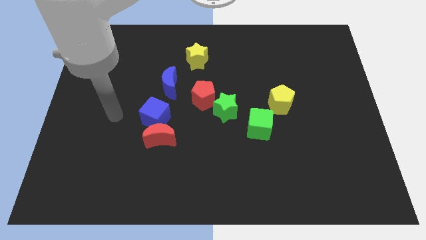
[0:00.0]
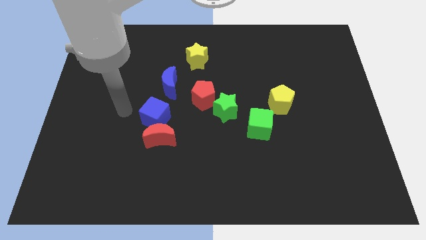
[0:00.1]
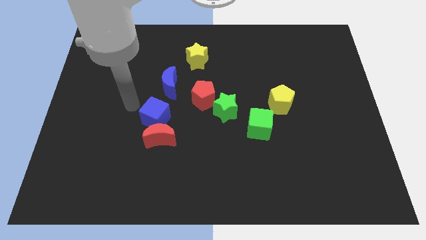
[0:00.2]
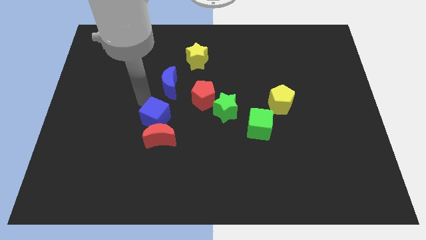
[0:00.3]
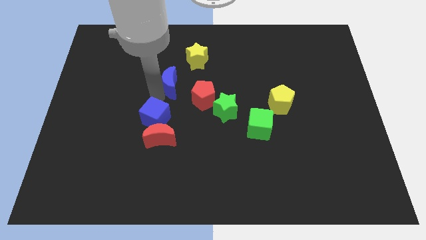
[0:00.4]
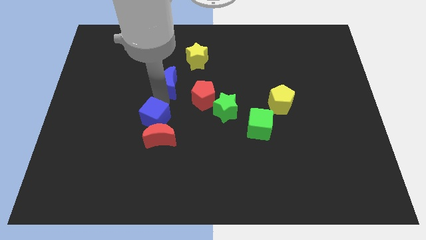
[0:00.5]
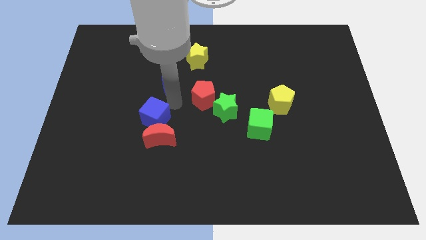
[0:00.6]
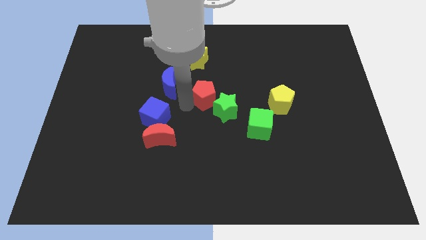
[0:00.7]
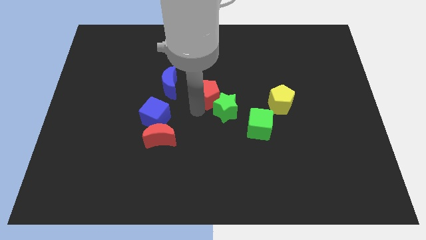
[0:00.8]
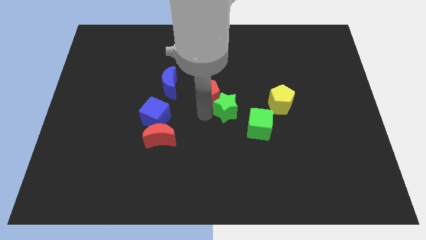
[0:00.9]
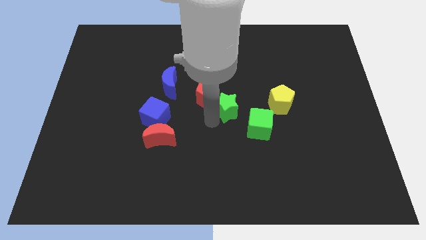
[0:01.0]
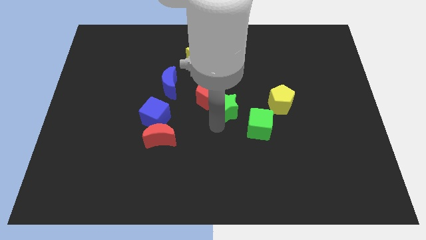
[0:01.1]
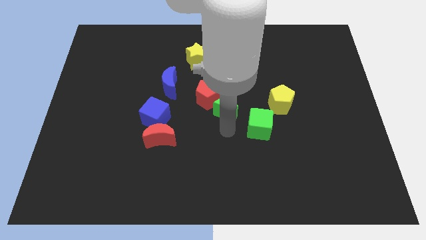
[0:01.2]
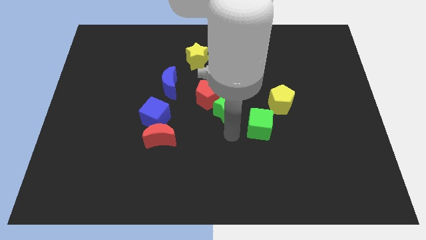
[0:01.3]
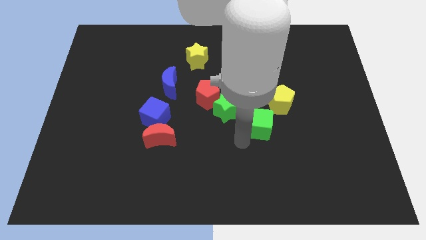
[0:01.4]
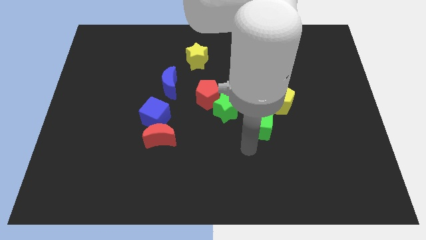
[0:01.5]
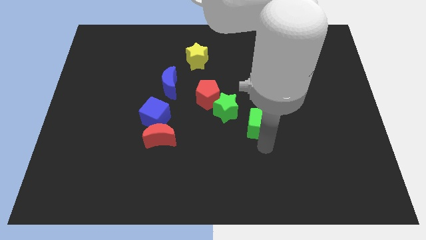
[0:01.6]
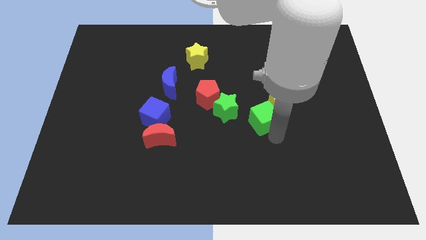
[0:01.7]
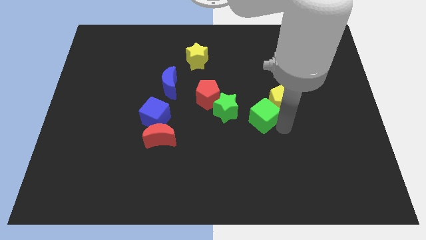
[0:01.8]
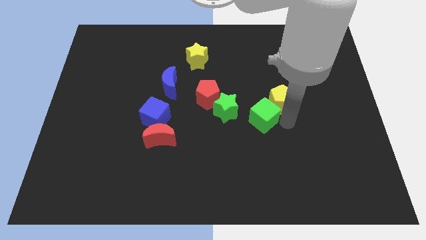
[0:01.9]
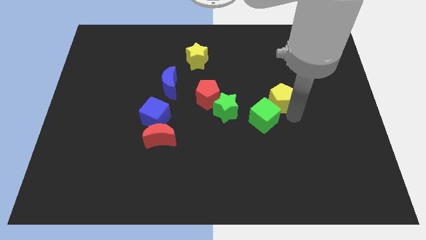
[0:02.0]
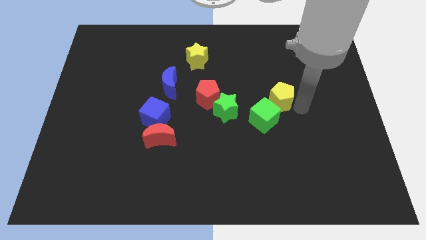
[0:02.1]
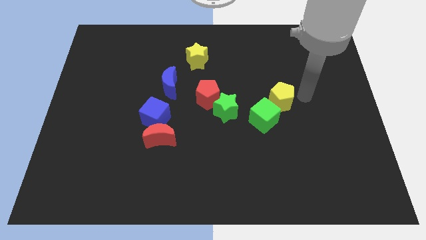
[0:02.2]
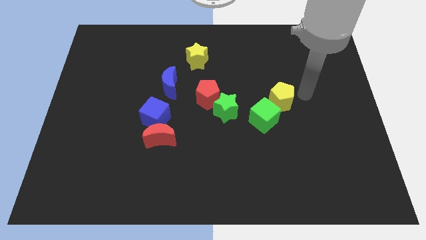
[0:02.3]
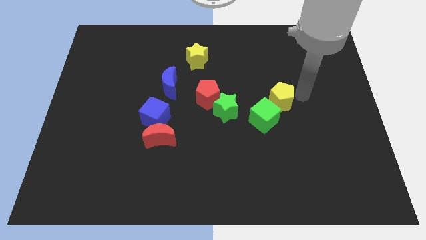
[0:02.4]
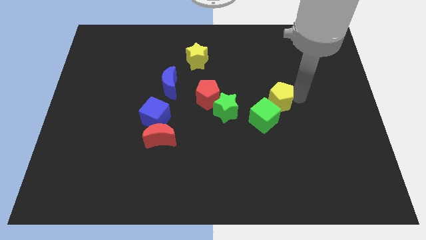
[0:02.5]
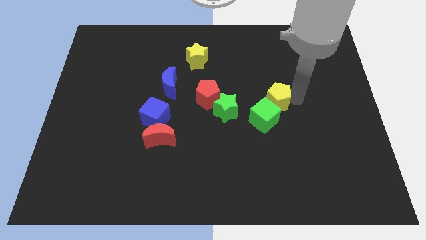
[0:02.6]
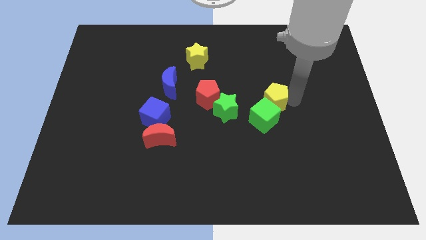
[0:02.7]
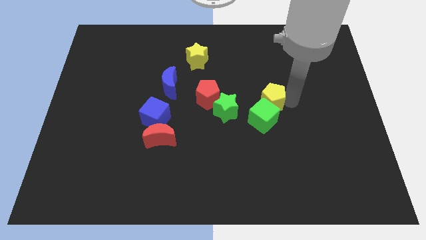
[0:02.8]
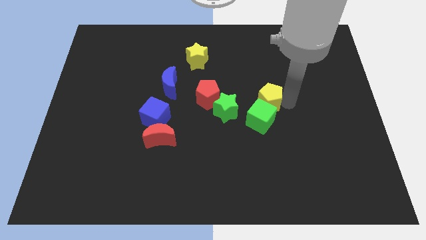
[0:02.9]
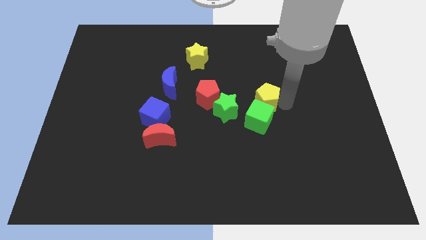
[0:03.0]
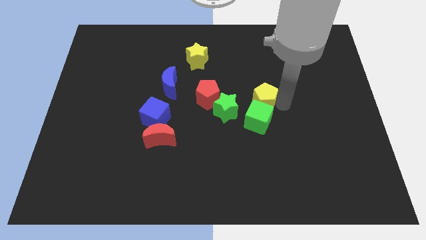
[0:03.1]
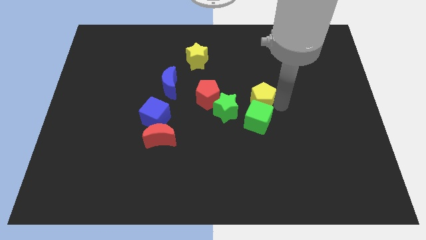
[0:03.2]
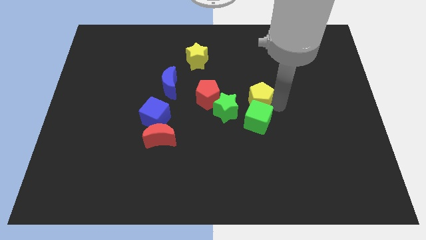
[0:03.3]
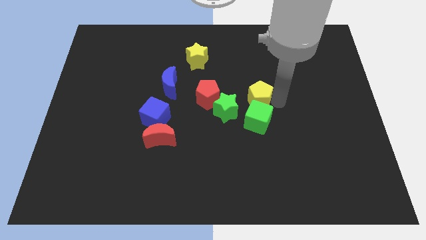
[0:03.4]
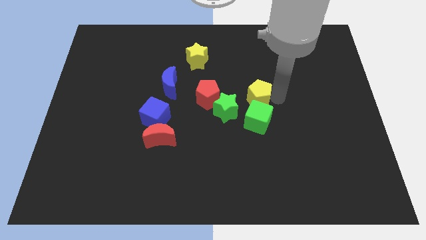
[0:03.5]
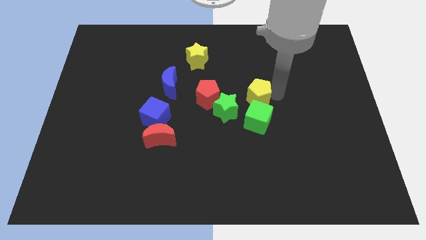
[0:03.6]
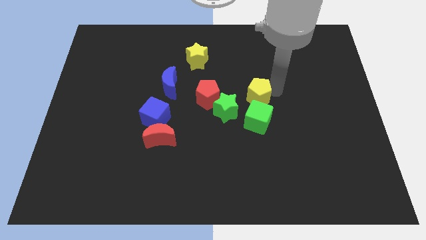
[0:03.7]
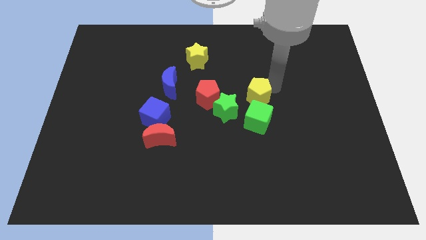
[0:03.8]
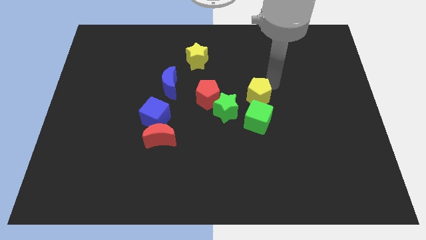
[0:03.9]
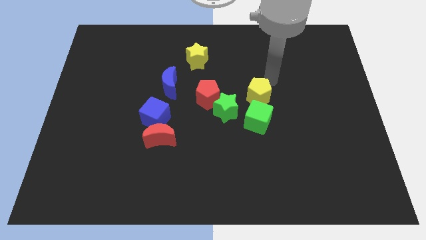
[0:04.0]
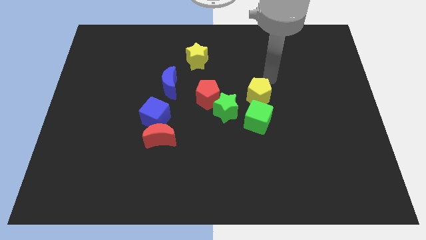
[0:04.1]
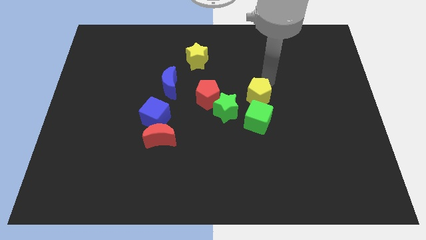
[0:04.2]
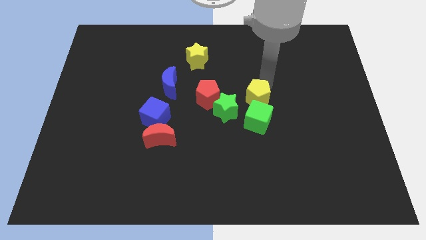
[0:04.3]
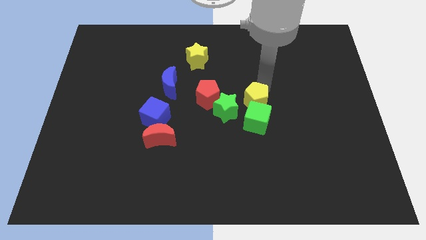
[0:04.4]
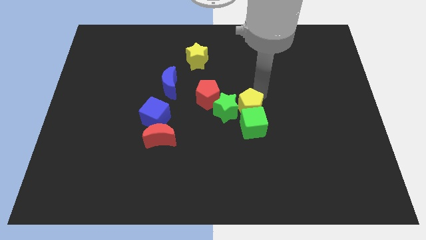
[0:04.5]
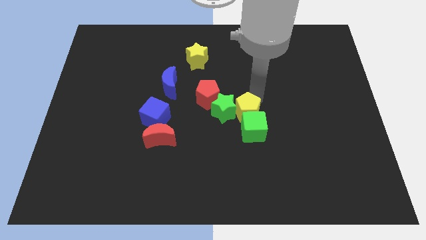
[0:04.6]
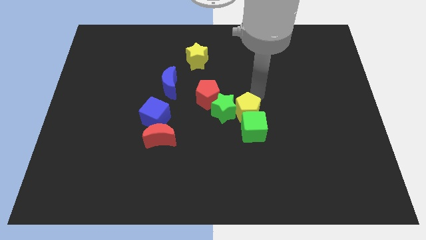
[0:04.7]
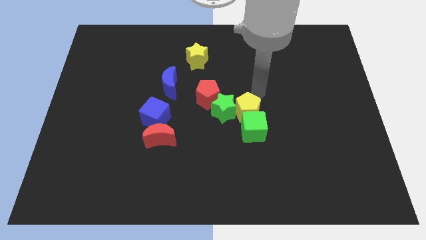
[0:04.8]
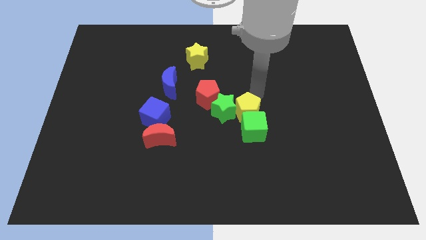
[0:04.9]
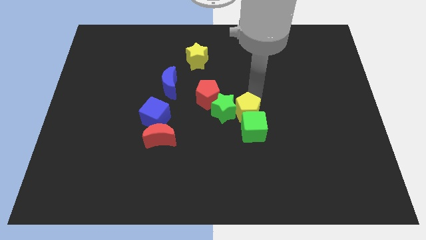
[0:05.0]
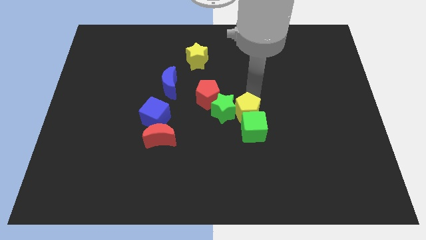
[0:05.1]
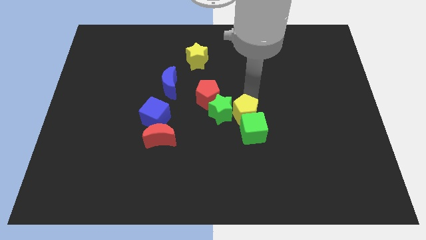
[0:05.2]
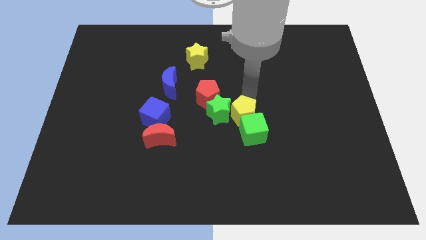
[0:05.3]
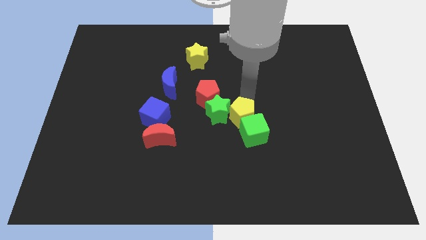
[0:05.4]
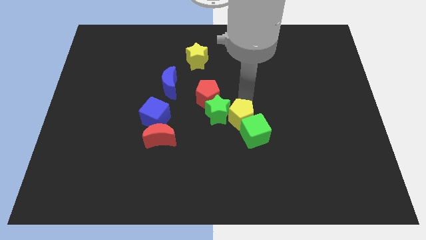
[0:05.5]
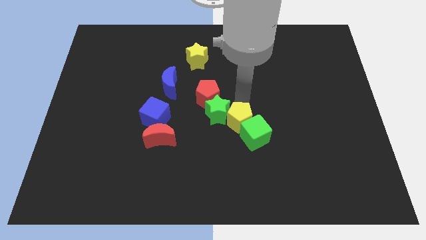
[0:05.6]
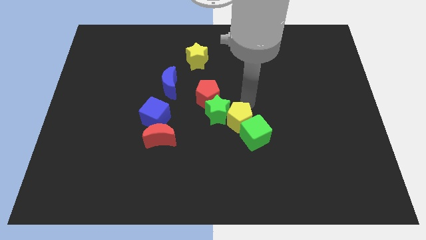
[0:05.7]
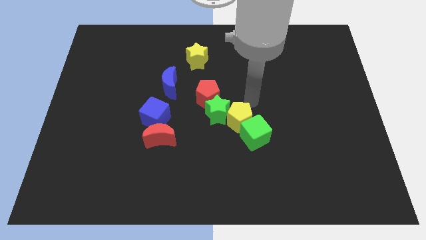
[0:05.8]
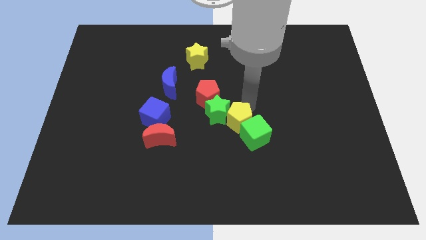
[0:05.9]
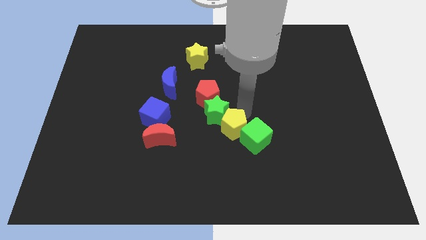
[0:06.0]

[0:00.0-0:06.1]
put the yellow pentagon below the green star

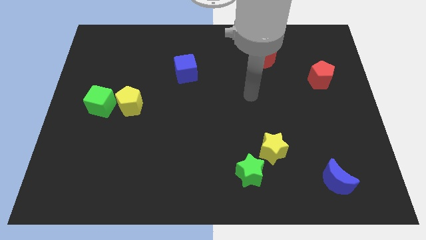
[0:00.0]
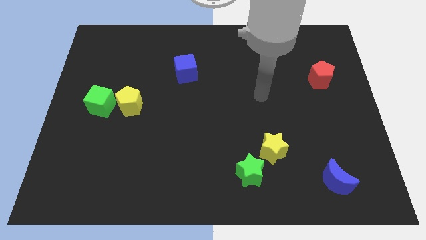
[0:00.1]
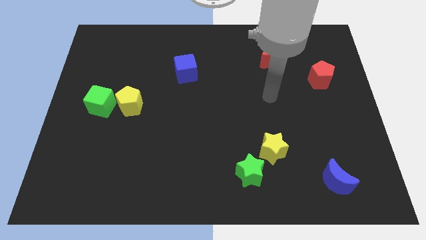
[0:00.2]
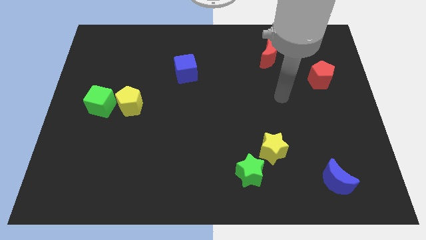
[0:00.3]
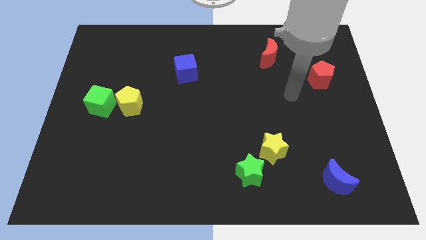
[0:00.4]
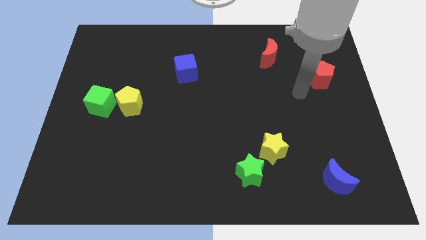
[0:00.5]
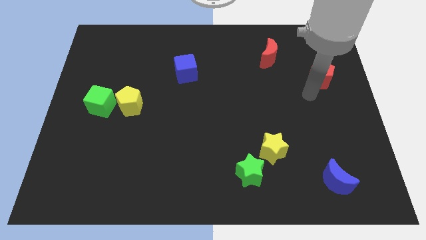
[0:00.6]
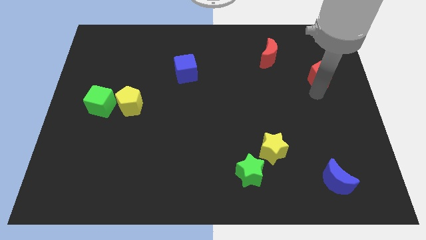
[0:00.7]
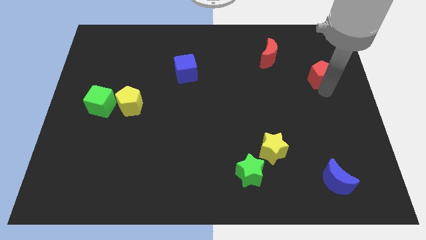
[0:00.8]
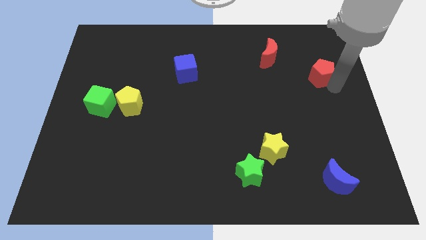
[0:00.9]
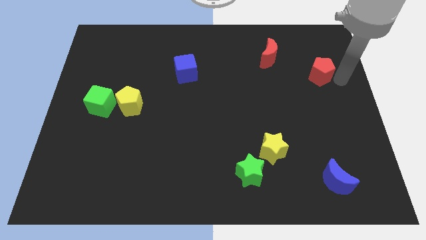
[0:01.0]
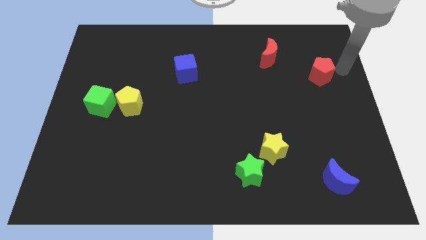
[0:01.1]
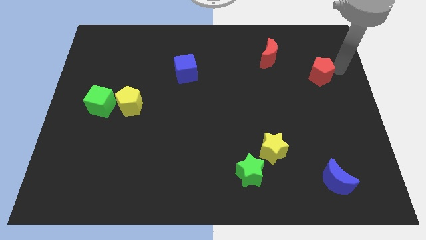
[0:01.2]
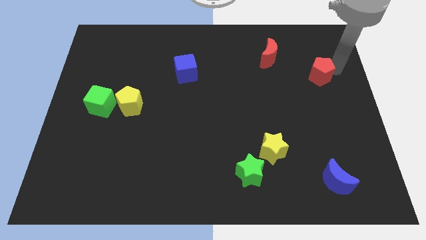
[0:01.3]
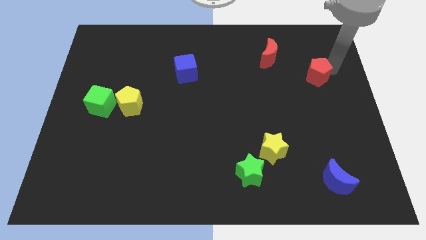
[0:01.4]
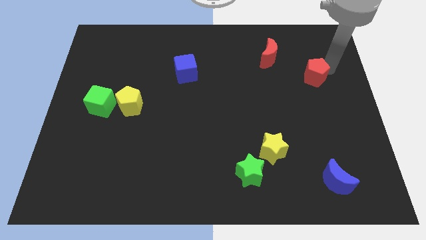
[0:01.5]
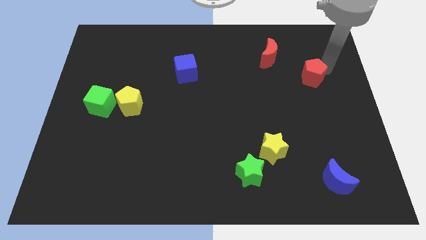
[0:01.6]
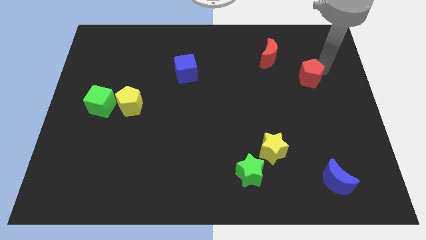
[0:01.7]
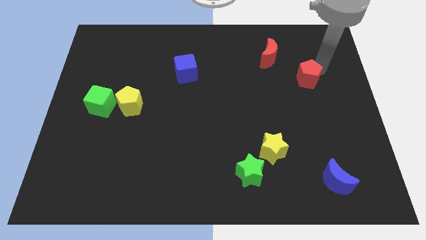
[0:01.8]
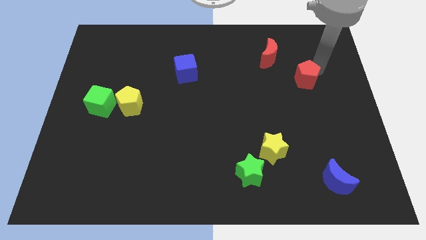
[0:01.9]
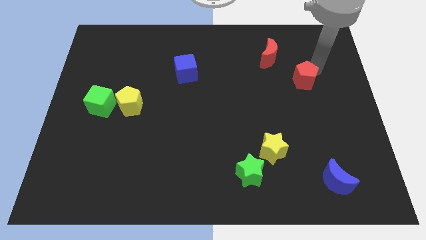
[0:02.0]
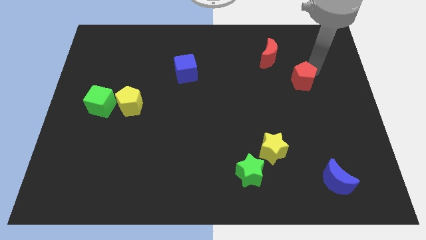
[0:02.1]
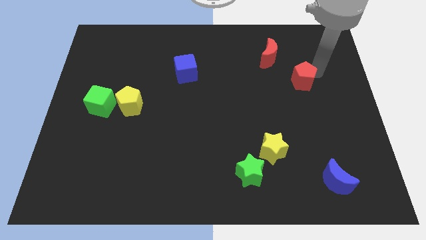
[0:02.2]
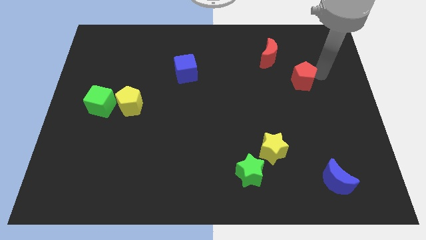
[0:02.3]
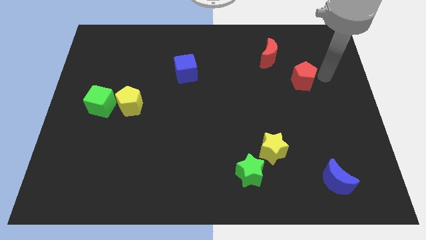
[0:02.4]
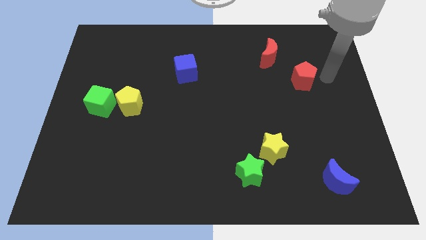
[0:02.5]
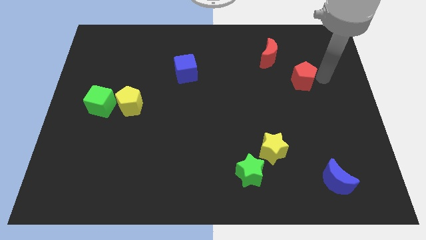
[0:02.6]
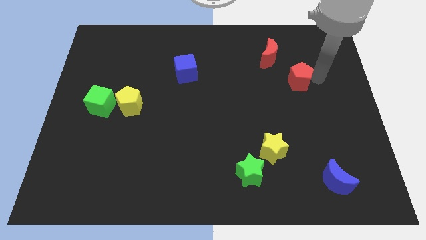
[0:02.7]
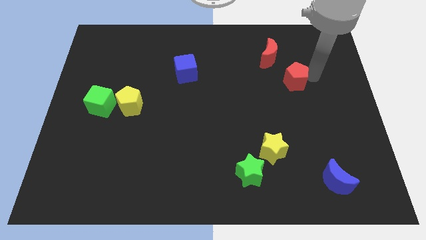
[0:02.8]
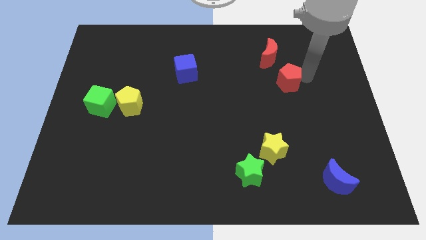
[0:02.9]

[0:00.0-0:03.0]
slide the red pentagon below the red moon
